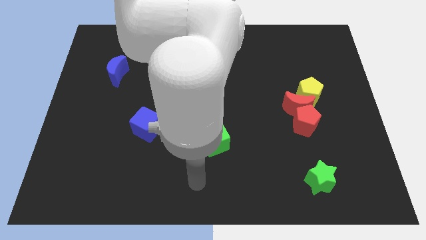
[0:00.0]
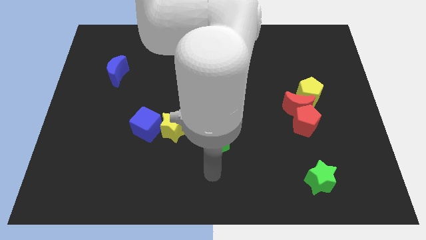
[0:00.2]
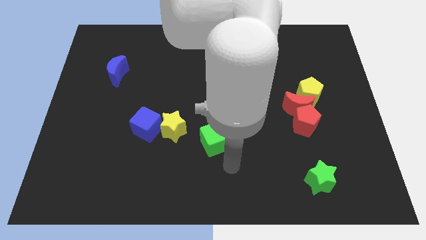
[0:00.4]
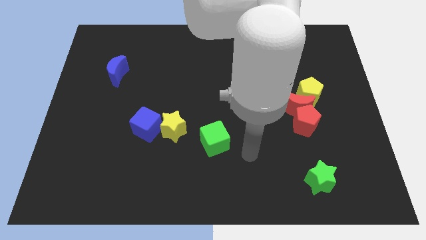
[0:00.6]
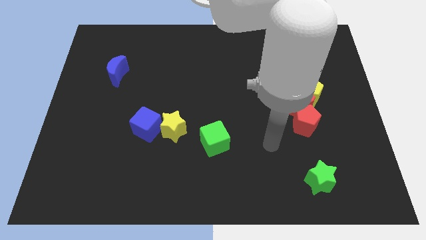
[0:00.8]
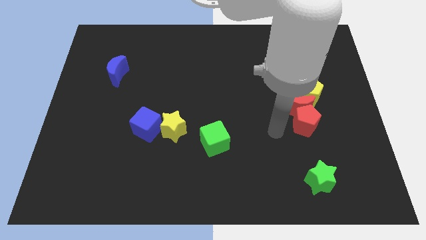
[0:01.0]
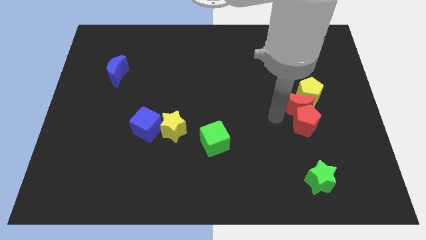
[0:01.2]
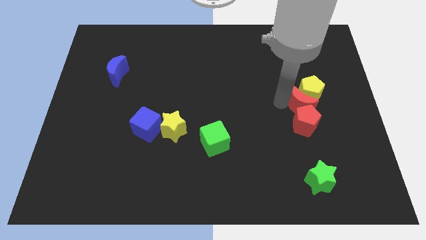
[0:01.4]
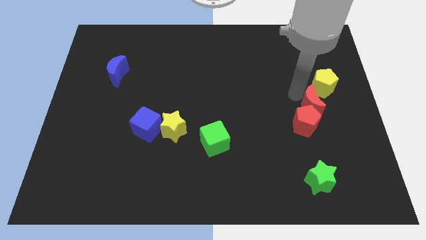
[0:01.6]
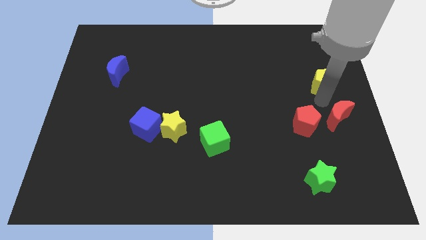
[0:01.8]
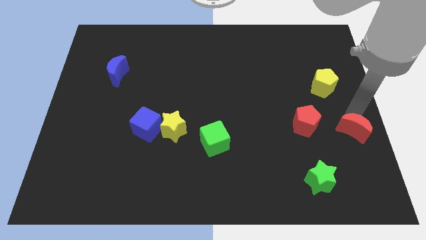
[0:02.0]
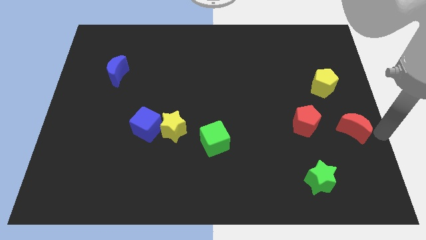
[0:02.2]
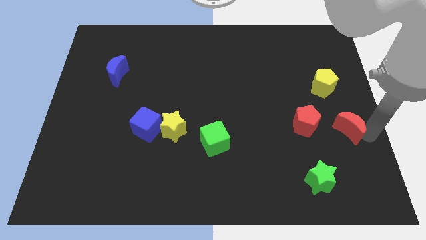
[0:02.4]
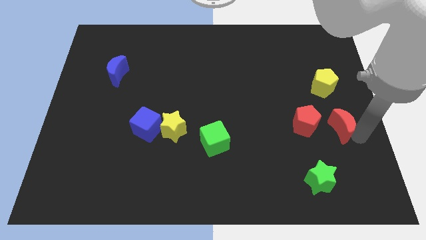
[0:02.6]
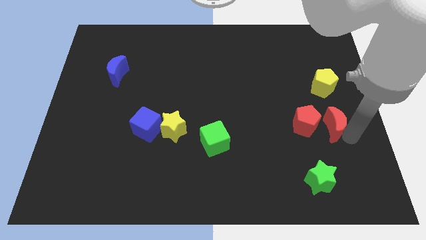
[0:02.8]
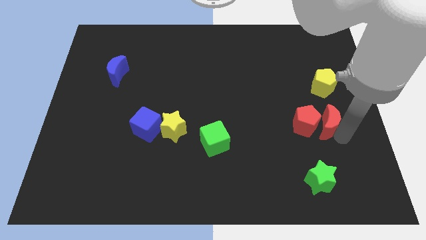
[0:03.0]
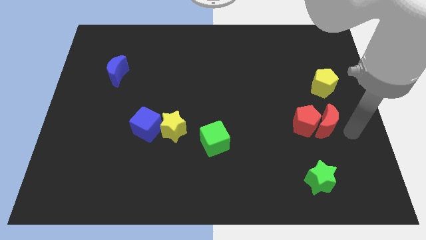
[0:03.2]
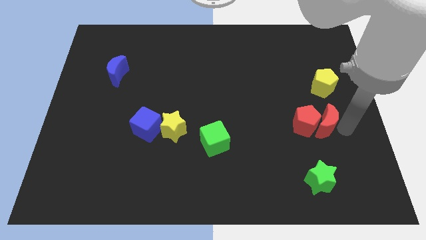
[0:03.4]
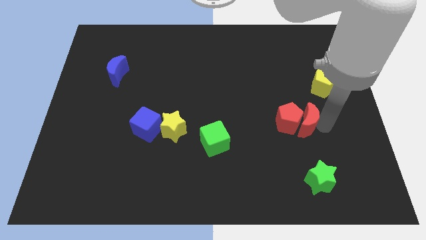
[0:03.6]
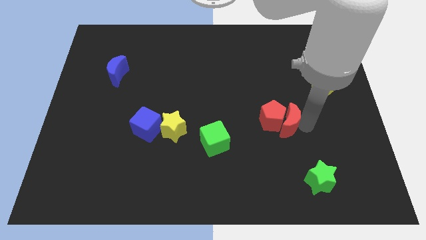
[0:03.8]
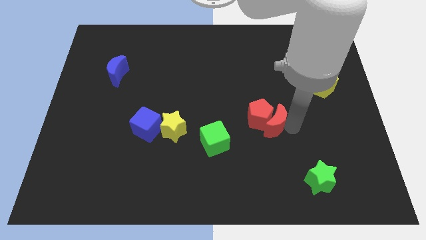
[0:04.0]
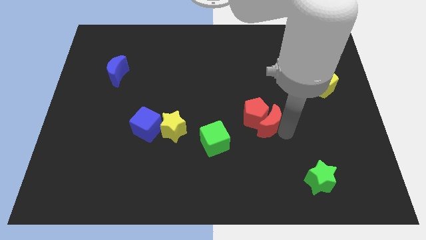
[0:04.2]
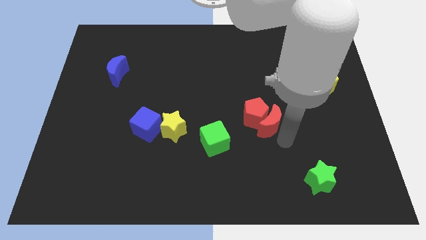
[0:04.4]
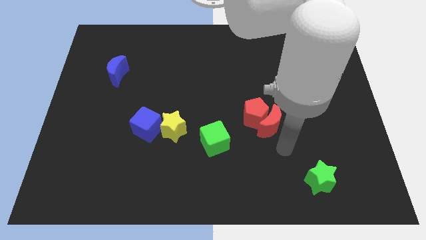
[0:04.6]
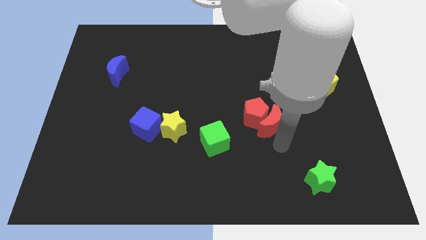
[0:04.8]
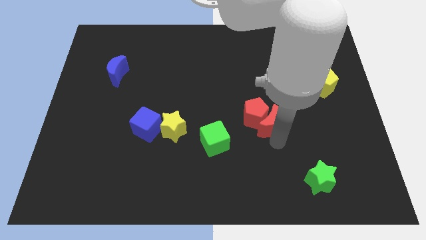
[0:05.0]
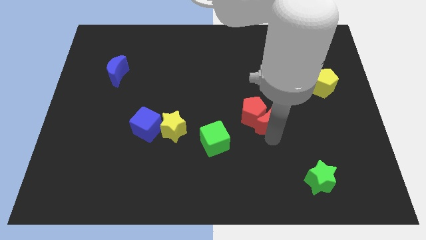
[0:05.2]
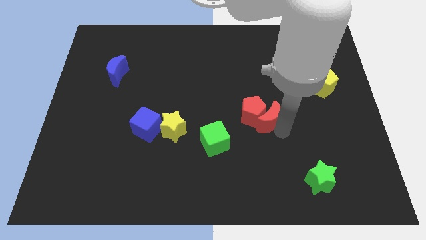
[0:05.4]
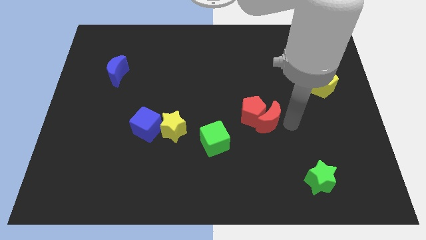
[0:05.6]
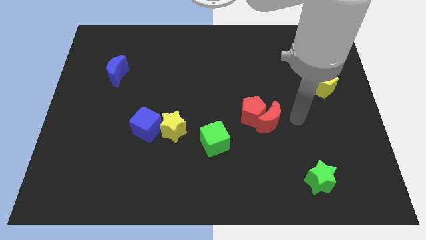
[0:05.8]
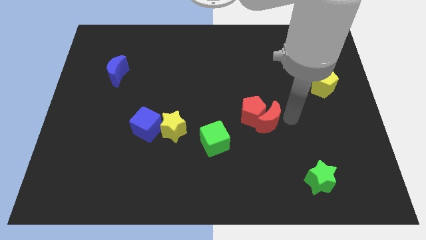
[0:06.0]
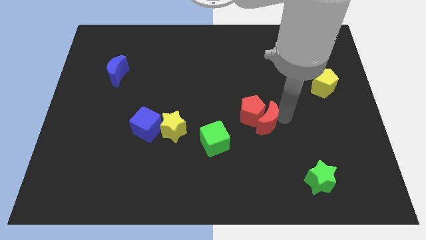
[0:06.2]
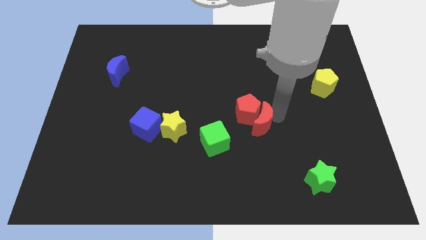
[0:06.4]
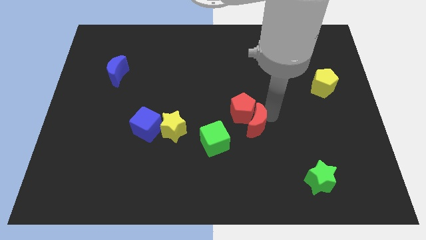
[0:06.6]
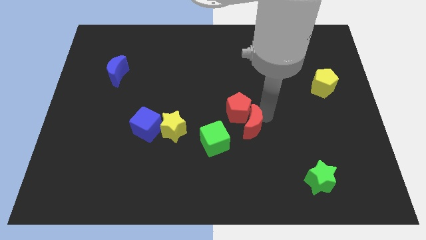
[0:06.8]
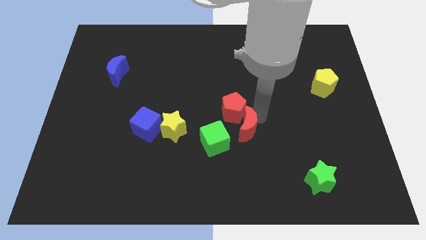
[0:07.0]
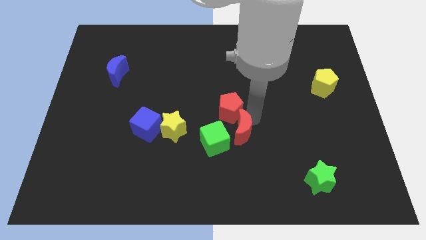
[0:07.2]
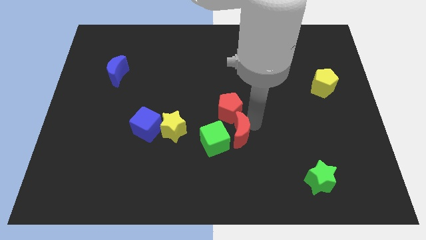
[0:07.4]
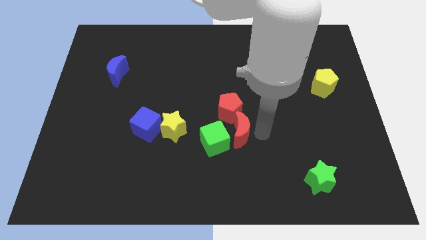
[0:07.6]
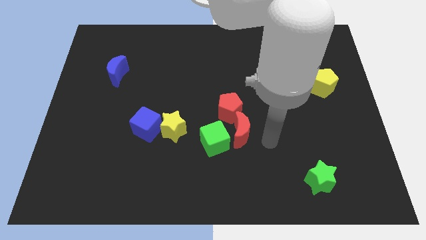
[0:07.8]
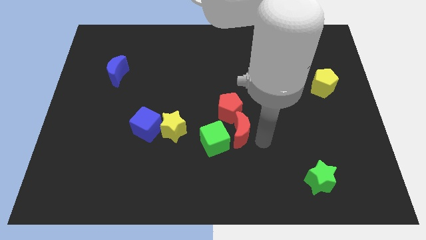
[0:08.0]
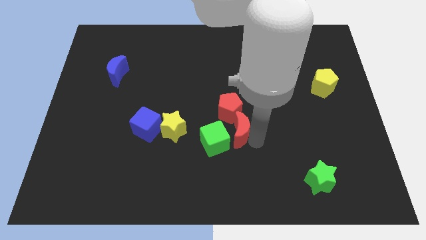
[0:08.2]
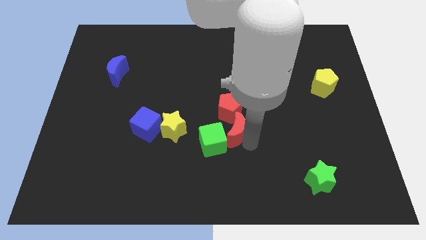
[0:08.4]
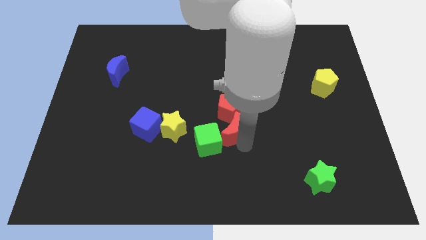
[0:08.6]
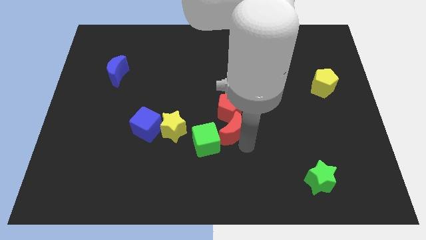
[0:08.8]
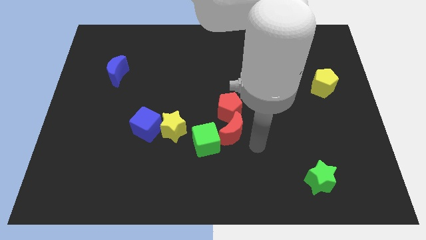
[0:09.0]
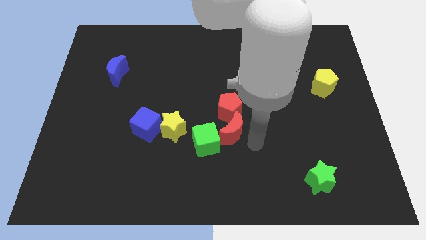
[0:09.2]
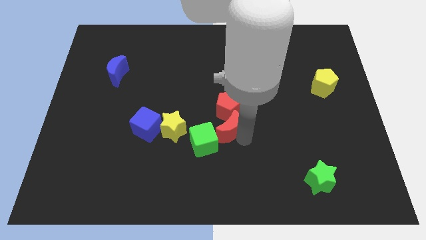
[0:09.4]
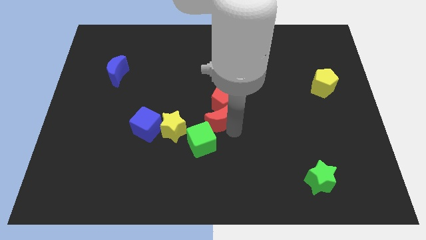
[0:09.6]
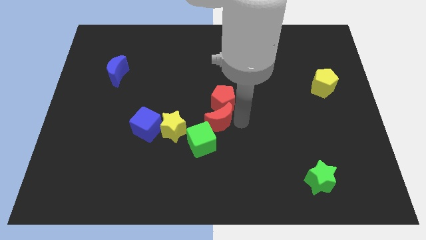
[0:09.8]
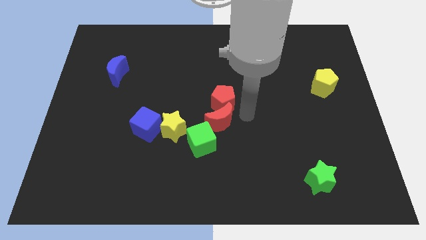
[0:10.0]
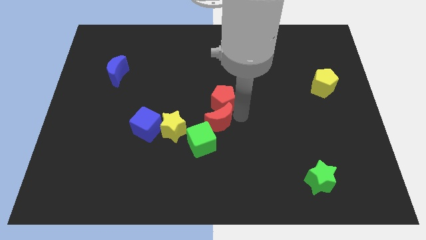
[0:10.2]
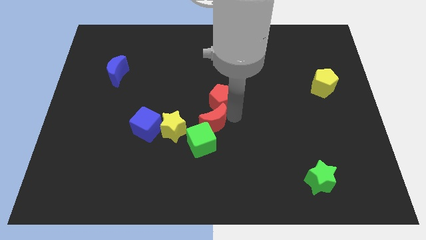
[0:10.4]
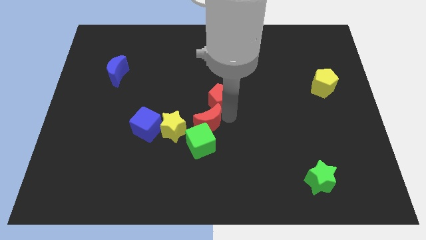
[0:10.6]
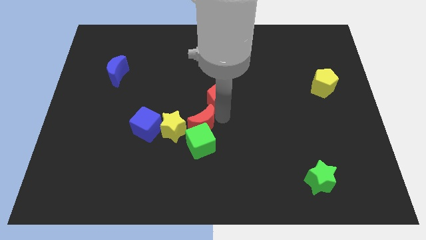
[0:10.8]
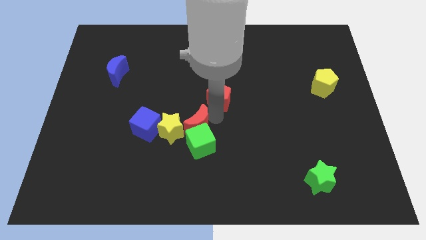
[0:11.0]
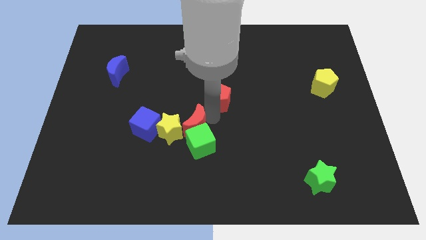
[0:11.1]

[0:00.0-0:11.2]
slide the red moon next to the yellow star

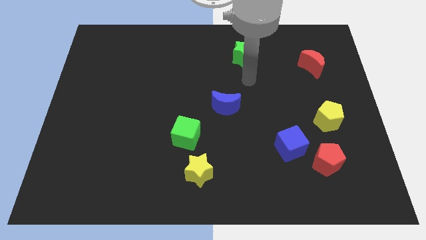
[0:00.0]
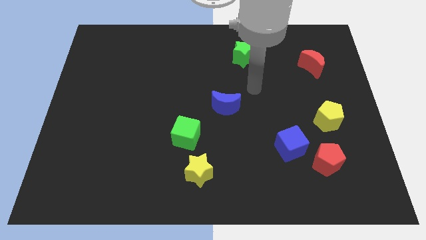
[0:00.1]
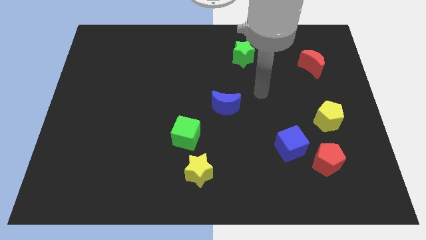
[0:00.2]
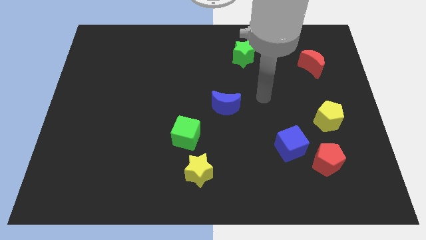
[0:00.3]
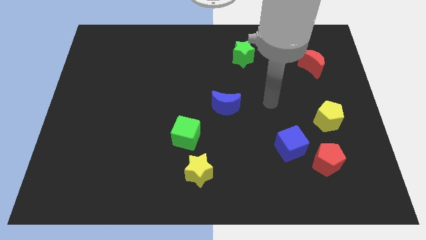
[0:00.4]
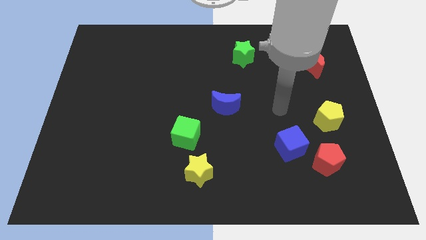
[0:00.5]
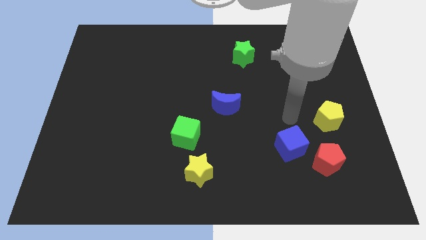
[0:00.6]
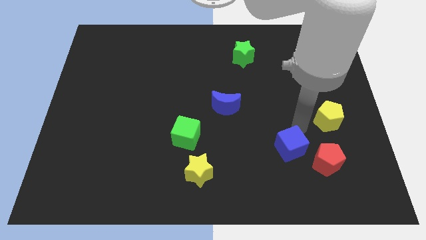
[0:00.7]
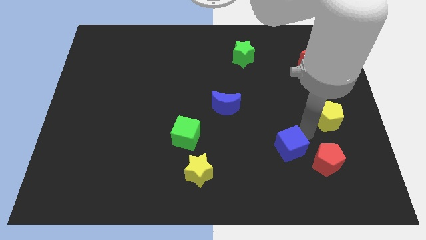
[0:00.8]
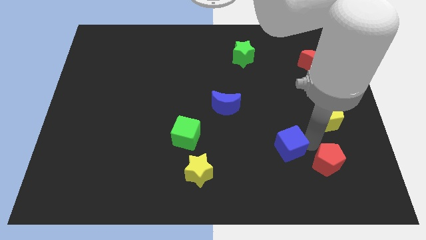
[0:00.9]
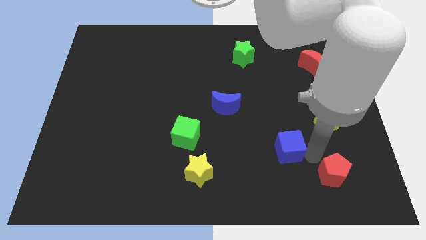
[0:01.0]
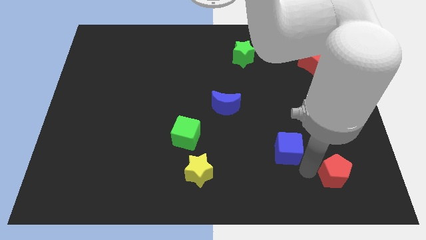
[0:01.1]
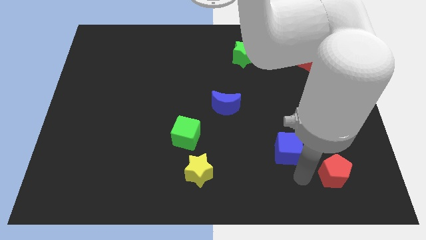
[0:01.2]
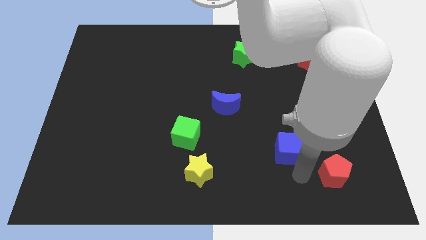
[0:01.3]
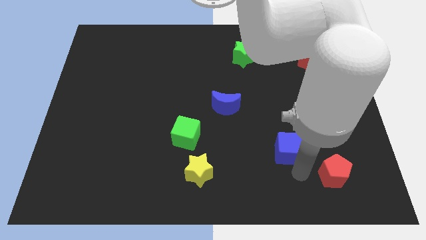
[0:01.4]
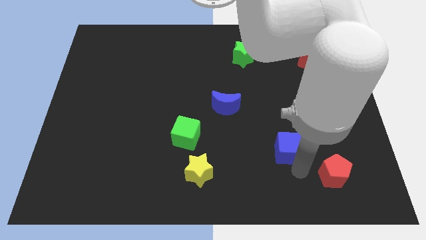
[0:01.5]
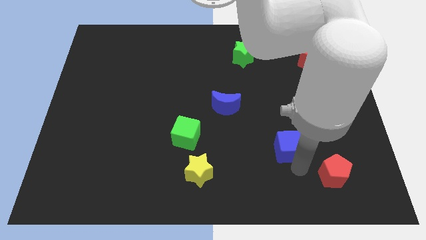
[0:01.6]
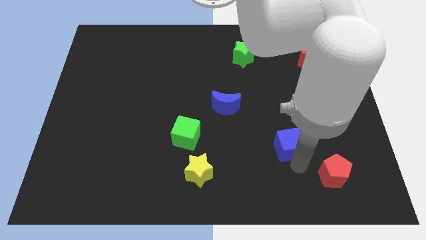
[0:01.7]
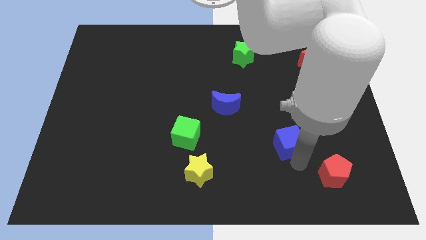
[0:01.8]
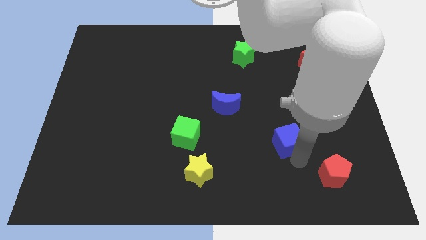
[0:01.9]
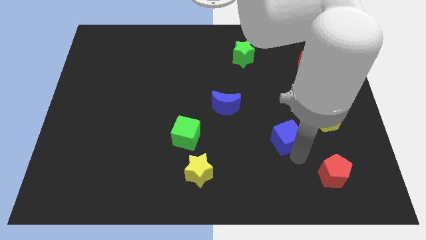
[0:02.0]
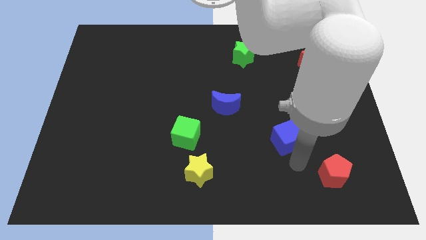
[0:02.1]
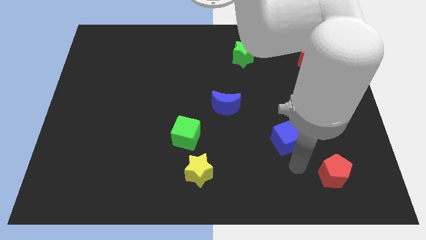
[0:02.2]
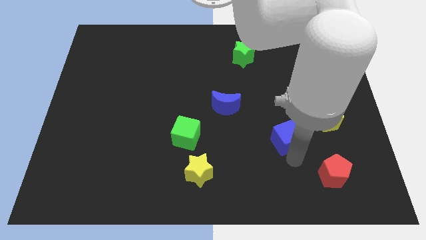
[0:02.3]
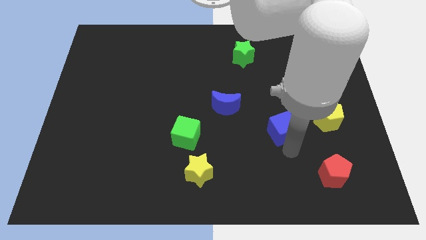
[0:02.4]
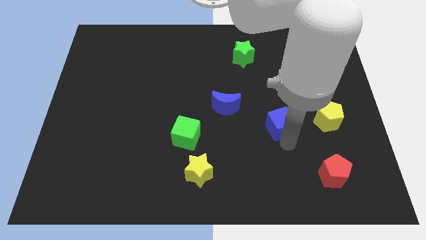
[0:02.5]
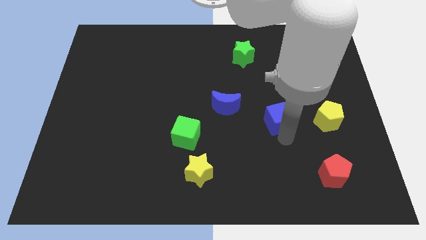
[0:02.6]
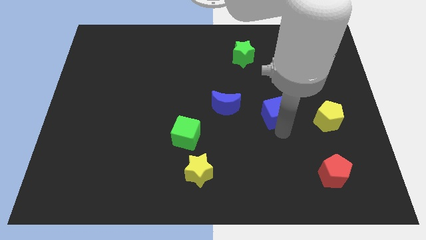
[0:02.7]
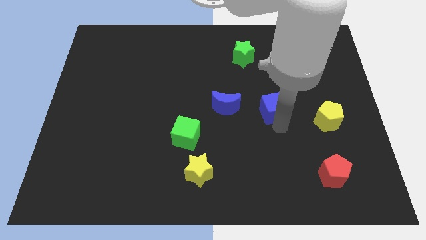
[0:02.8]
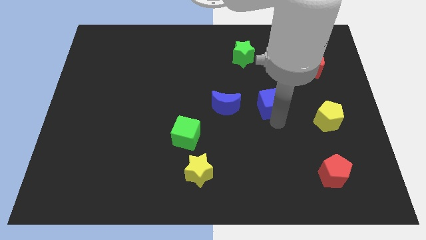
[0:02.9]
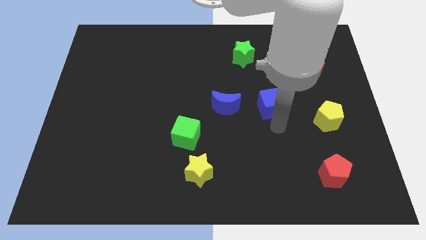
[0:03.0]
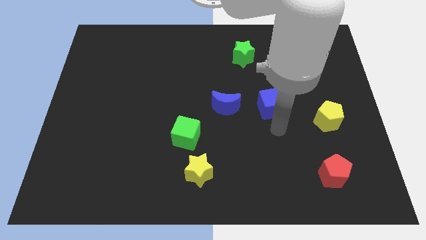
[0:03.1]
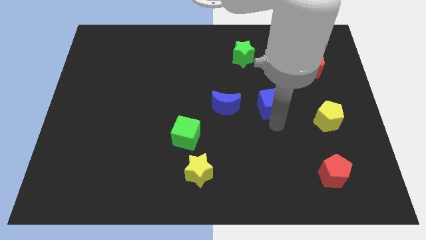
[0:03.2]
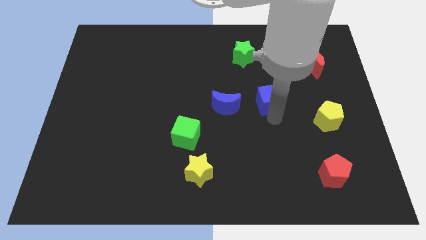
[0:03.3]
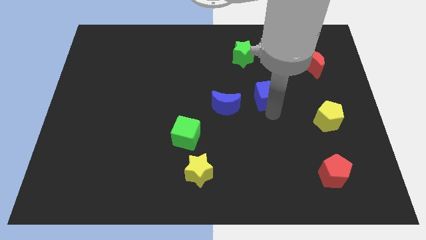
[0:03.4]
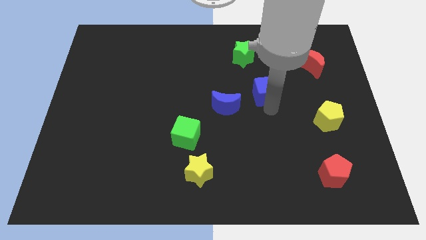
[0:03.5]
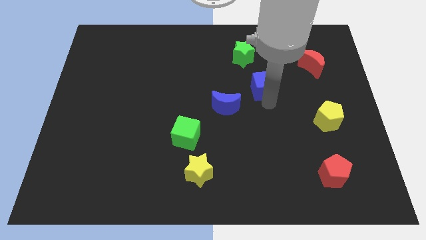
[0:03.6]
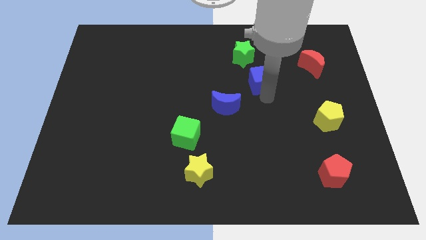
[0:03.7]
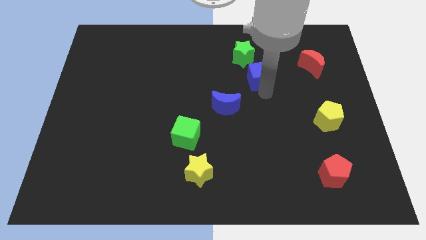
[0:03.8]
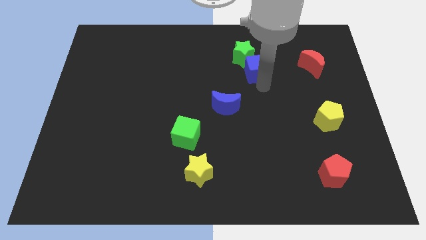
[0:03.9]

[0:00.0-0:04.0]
put the blue cube next to the green star
